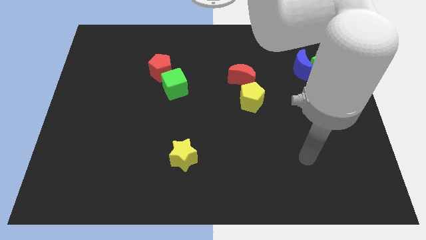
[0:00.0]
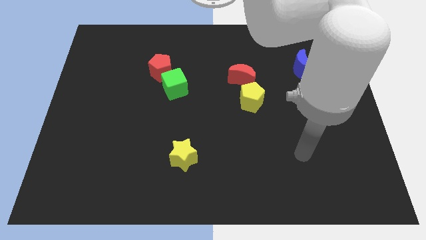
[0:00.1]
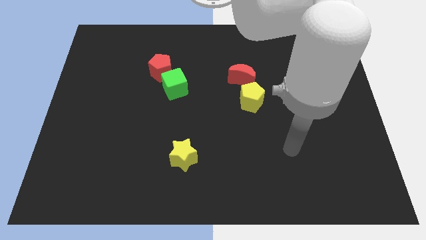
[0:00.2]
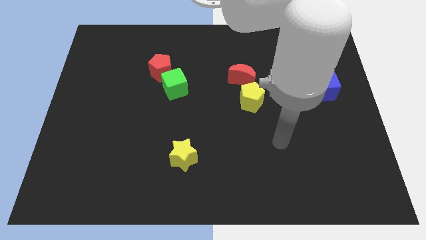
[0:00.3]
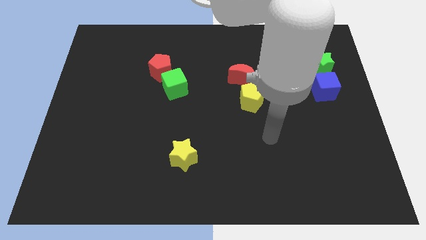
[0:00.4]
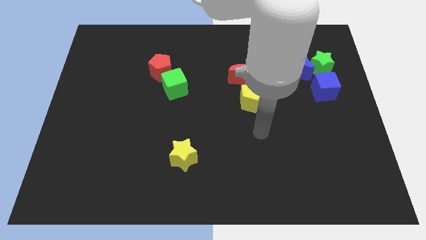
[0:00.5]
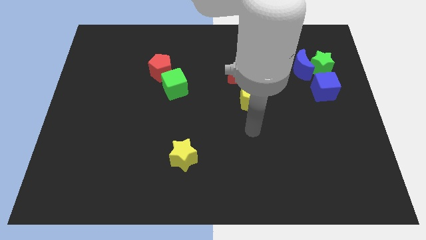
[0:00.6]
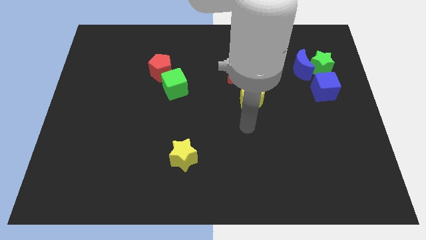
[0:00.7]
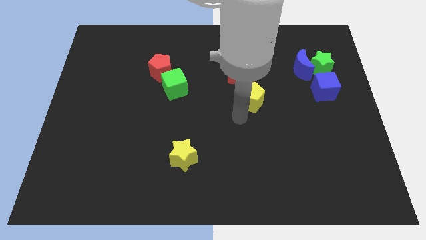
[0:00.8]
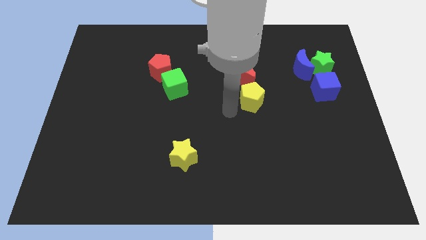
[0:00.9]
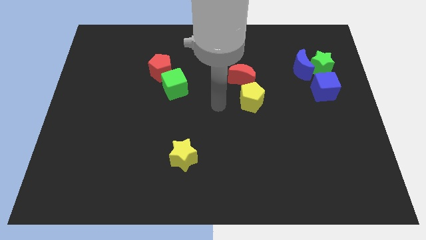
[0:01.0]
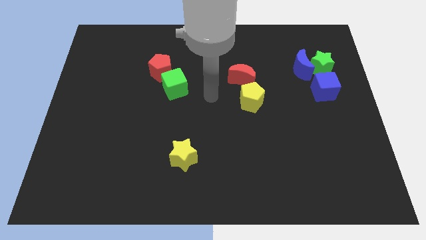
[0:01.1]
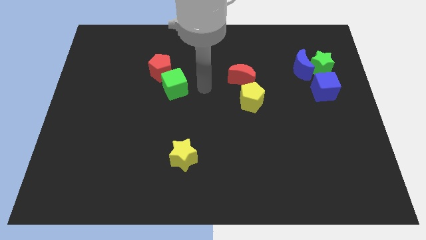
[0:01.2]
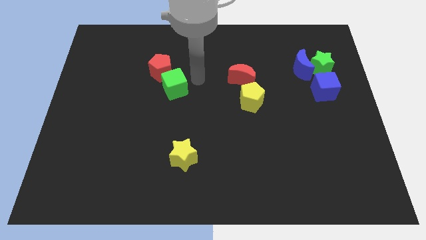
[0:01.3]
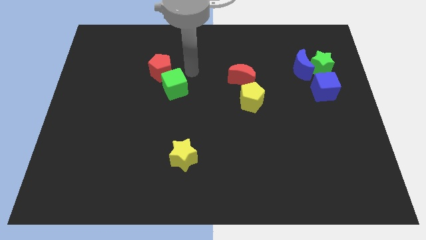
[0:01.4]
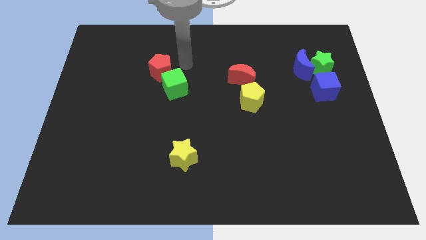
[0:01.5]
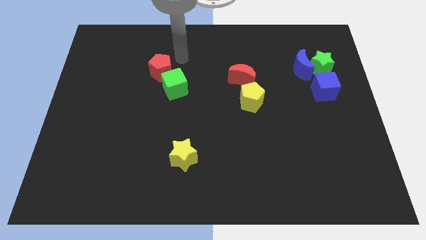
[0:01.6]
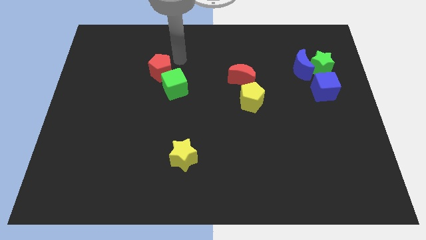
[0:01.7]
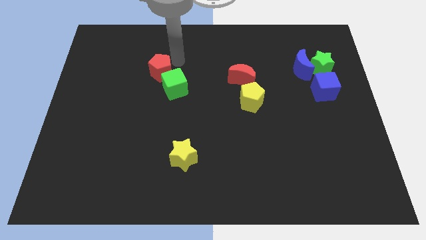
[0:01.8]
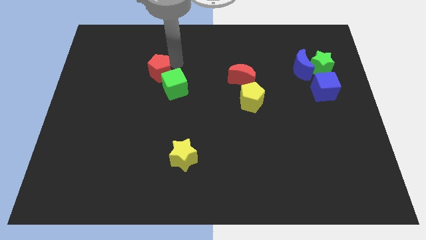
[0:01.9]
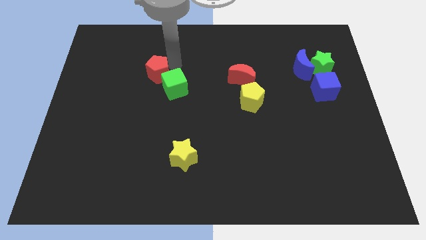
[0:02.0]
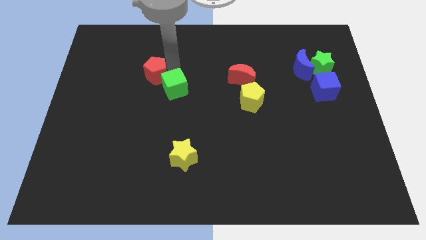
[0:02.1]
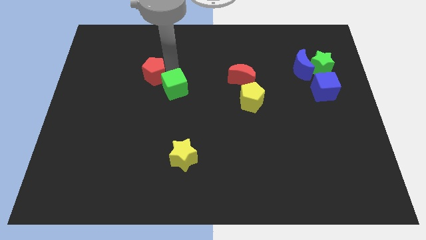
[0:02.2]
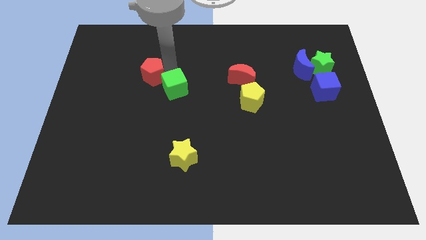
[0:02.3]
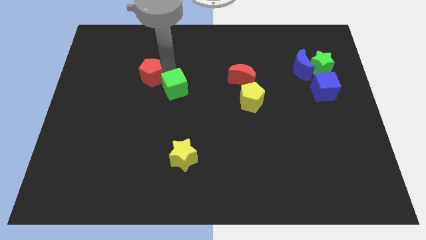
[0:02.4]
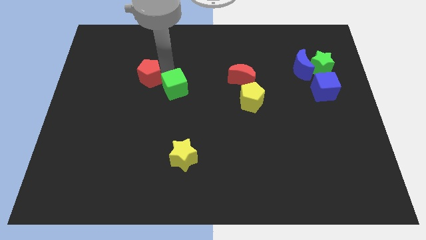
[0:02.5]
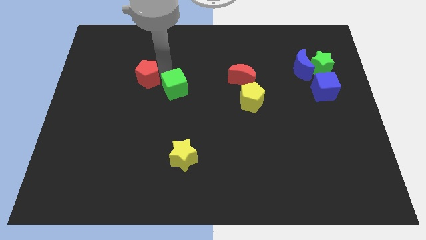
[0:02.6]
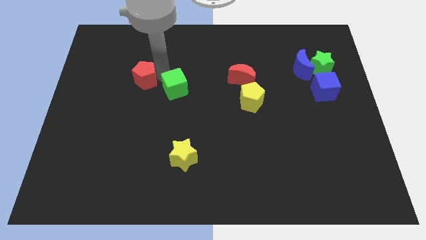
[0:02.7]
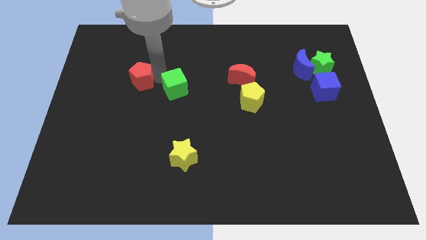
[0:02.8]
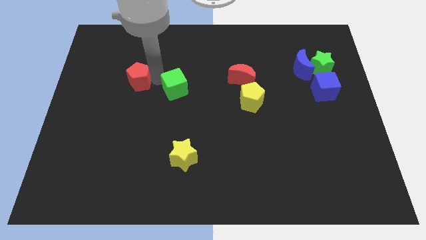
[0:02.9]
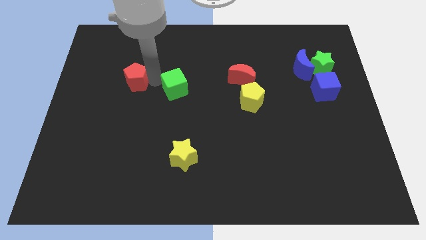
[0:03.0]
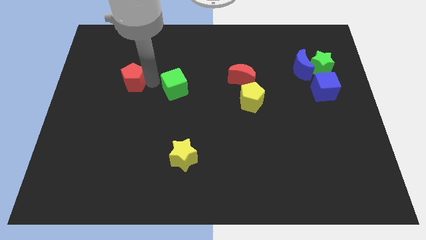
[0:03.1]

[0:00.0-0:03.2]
push the red pentagon down and then to the left a bit

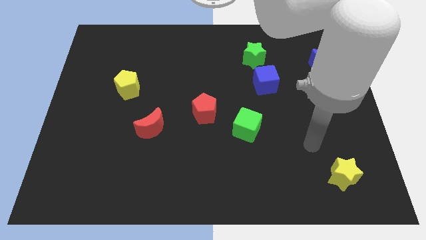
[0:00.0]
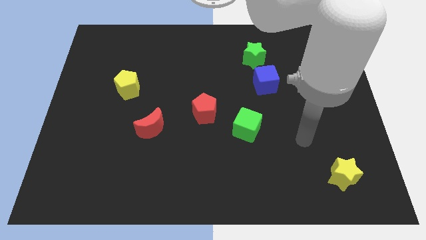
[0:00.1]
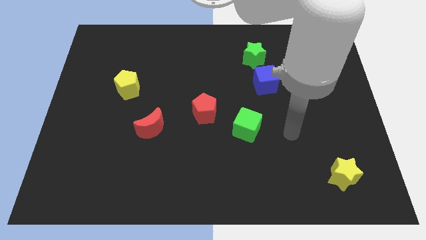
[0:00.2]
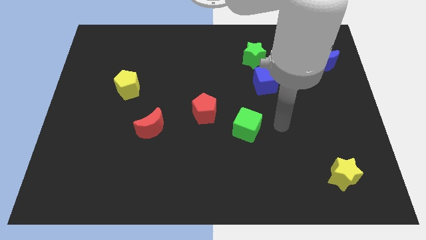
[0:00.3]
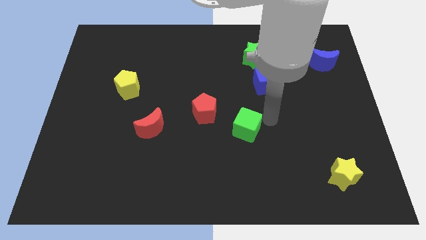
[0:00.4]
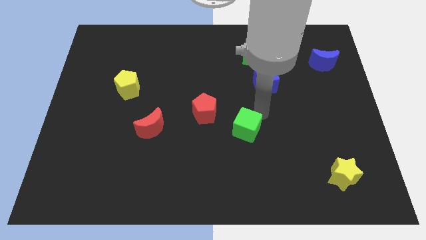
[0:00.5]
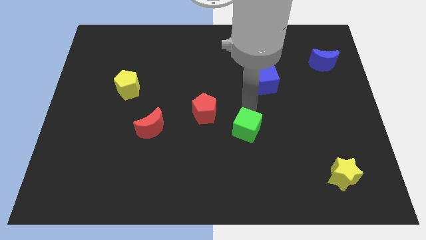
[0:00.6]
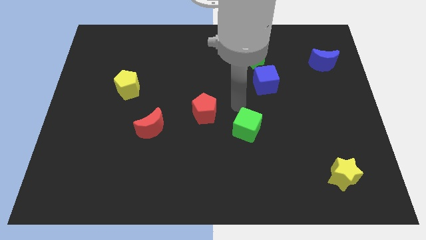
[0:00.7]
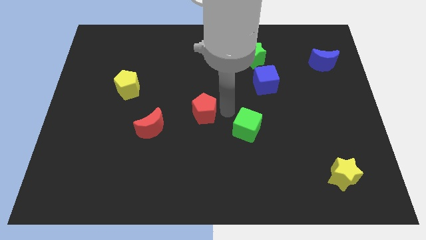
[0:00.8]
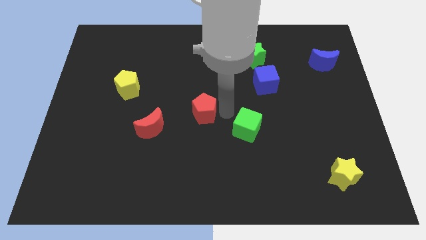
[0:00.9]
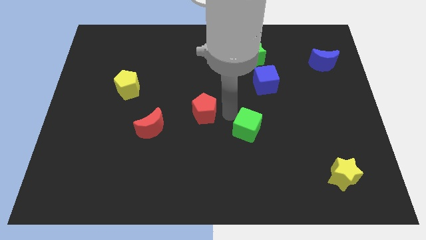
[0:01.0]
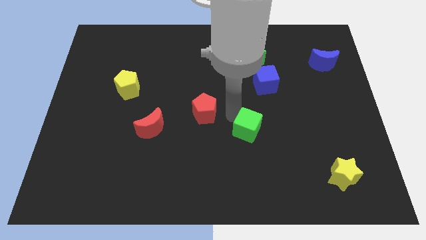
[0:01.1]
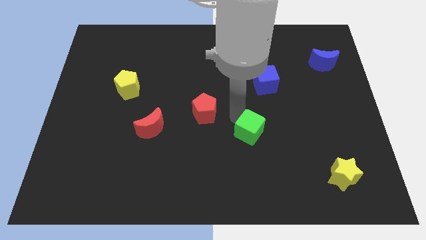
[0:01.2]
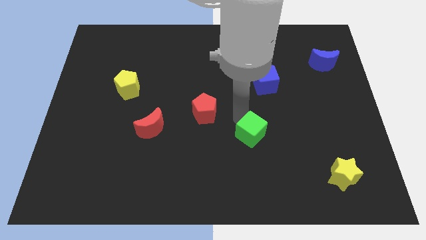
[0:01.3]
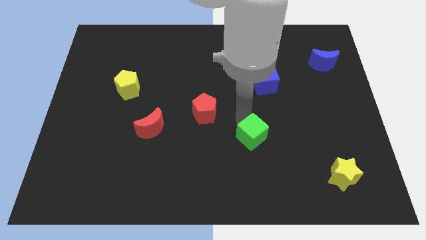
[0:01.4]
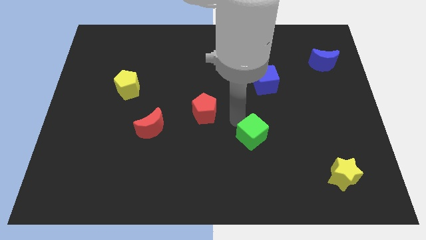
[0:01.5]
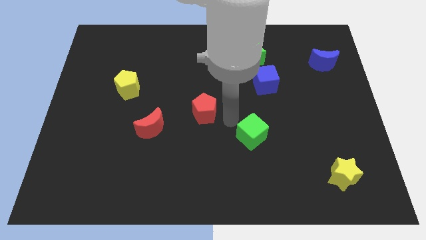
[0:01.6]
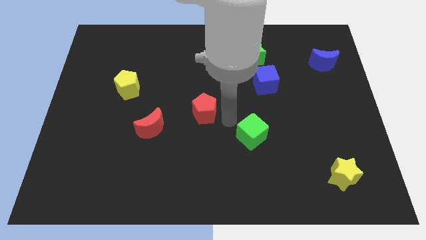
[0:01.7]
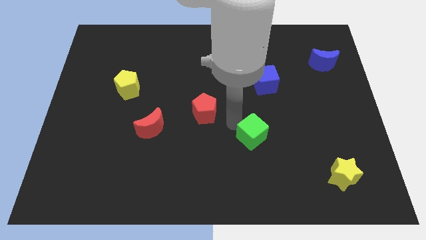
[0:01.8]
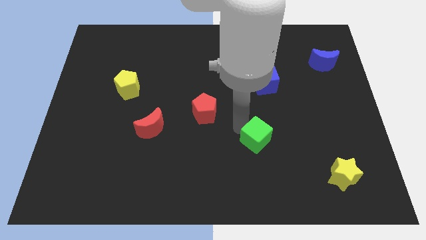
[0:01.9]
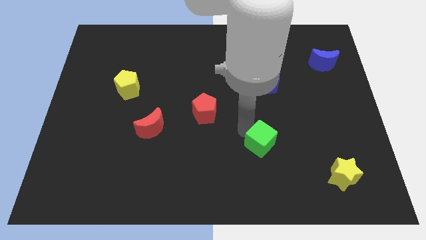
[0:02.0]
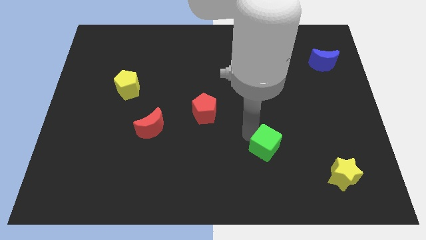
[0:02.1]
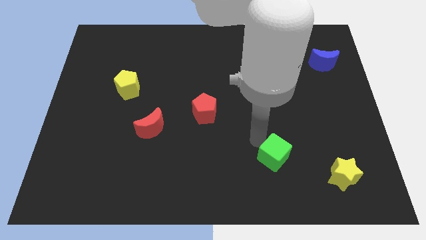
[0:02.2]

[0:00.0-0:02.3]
move the green cube down and to the right a little bit

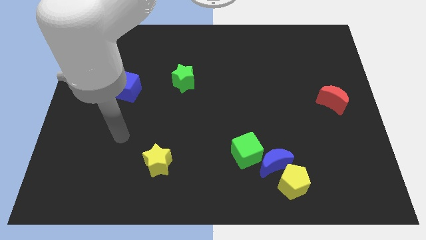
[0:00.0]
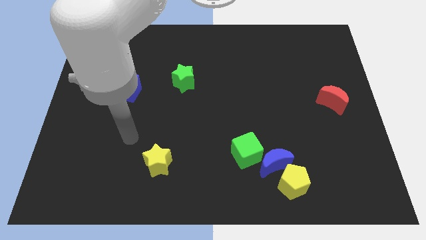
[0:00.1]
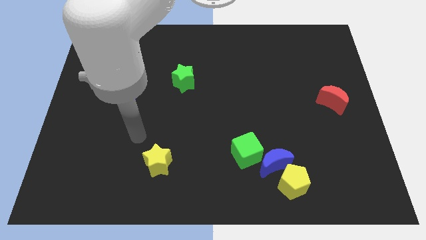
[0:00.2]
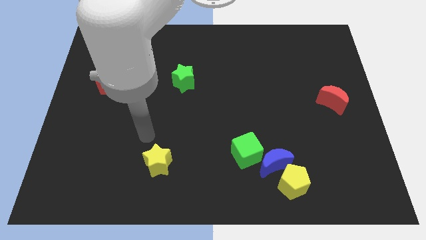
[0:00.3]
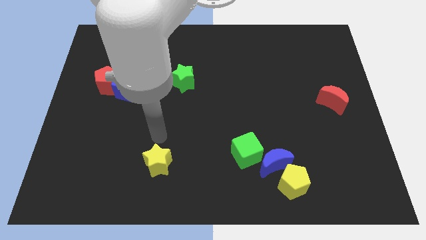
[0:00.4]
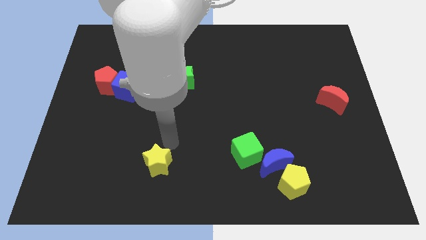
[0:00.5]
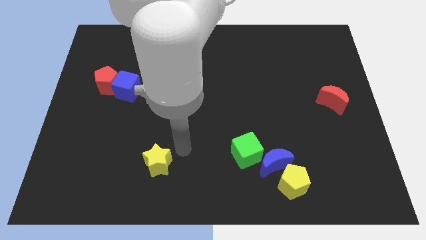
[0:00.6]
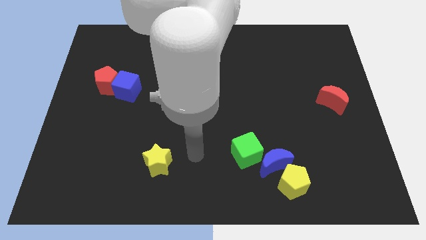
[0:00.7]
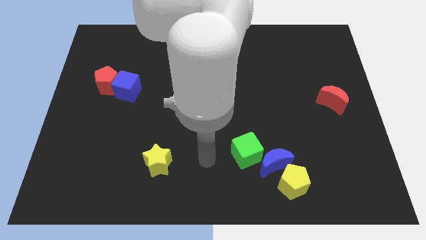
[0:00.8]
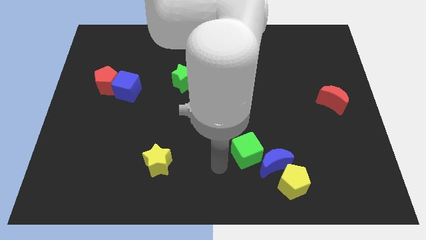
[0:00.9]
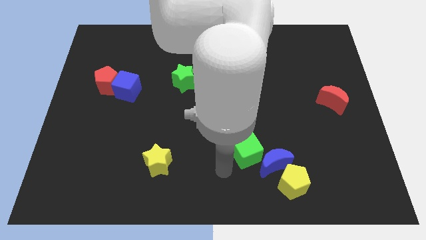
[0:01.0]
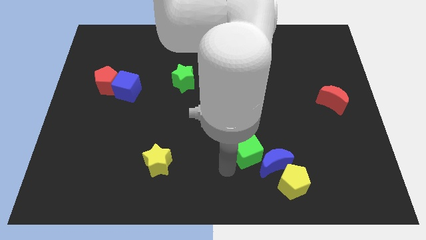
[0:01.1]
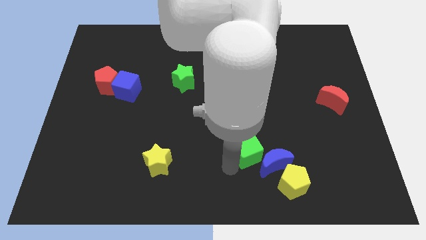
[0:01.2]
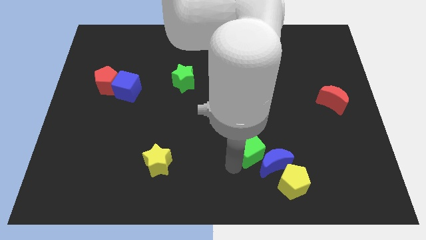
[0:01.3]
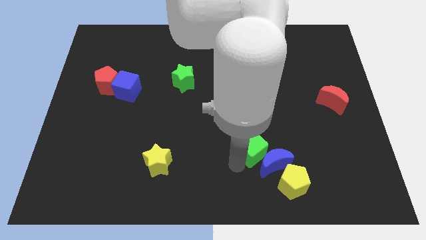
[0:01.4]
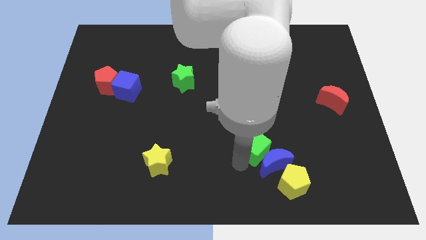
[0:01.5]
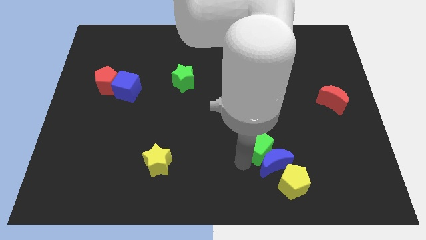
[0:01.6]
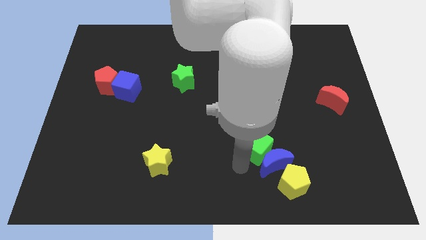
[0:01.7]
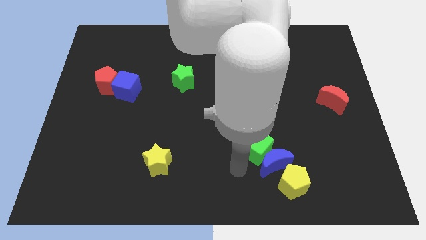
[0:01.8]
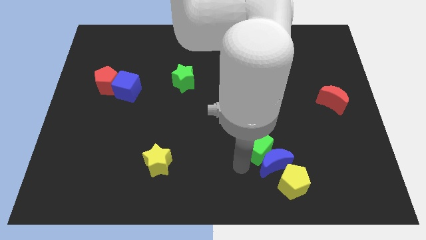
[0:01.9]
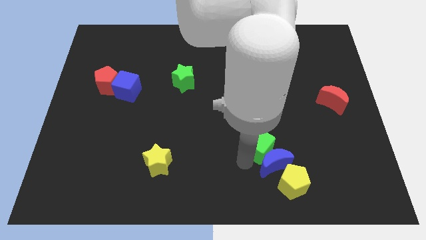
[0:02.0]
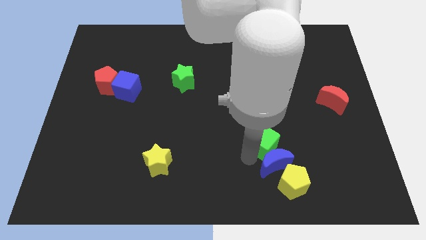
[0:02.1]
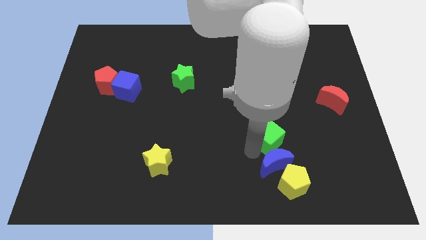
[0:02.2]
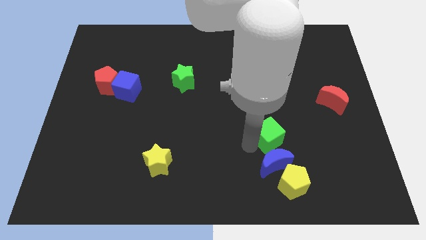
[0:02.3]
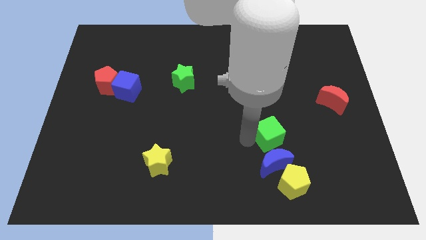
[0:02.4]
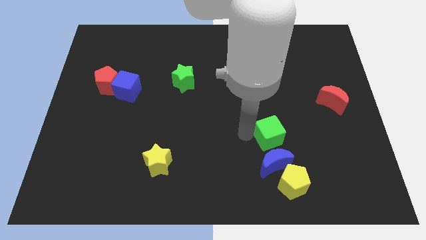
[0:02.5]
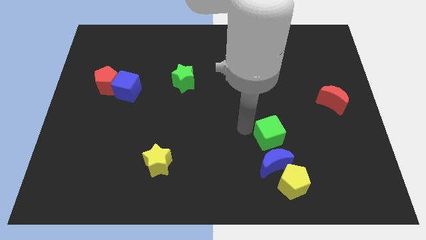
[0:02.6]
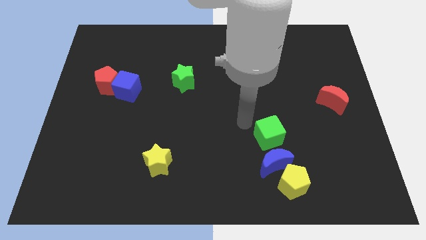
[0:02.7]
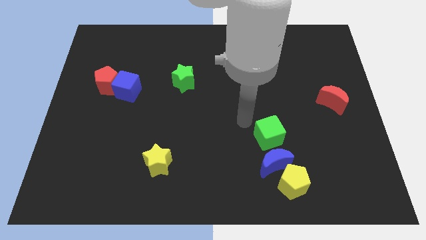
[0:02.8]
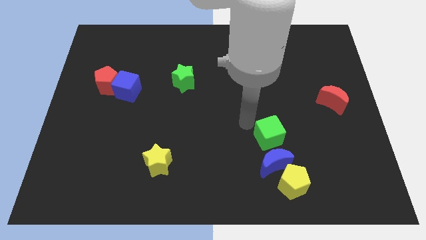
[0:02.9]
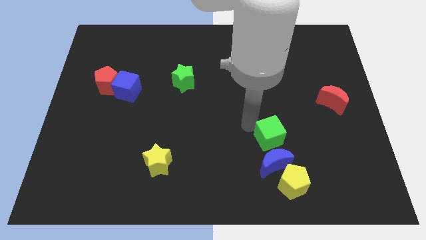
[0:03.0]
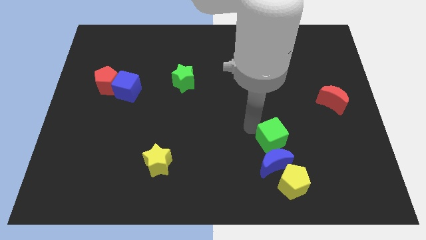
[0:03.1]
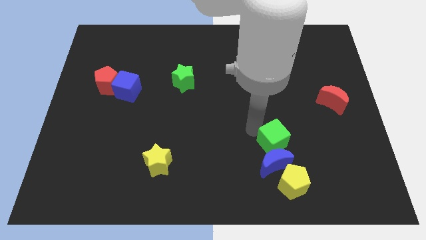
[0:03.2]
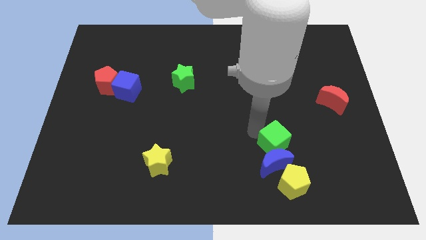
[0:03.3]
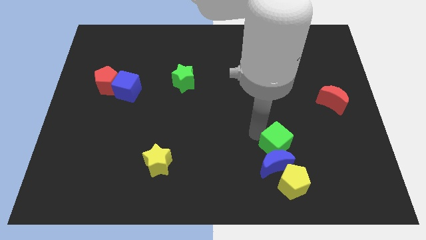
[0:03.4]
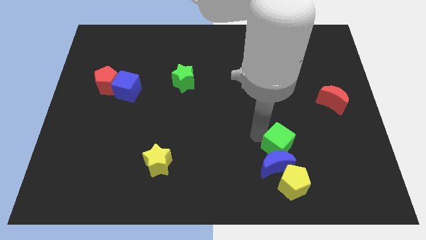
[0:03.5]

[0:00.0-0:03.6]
push the green cube right a little bit
